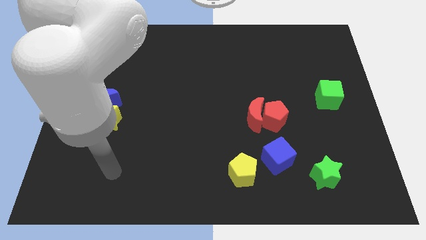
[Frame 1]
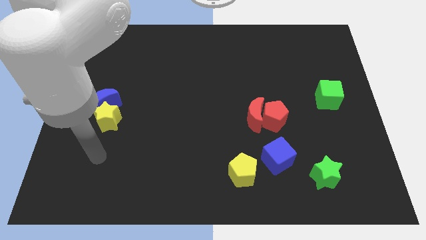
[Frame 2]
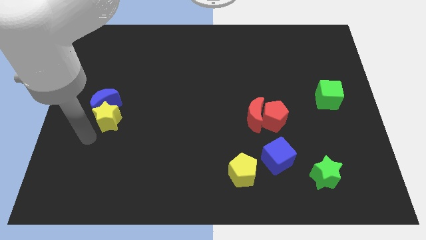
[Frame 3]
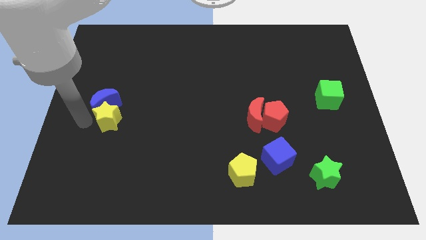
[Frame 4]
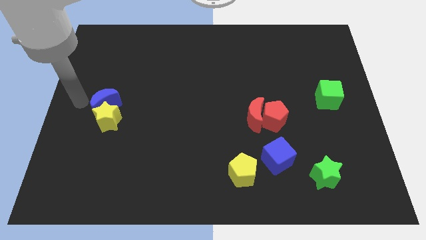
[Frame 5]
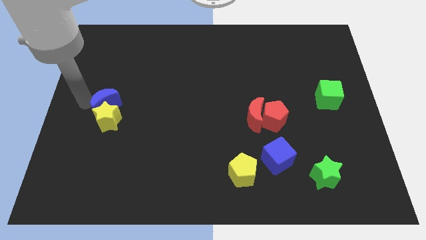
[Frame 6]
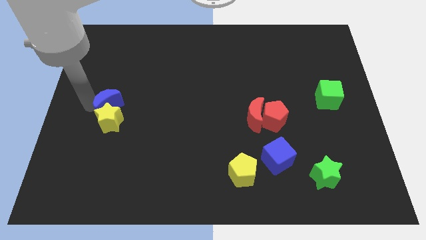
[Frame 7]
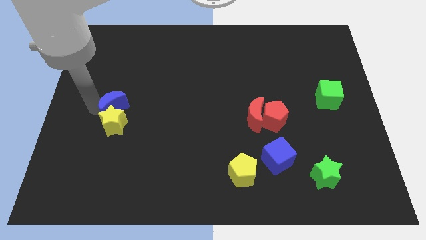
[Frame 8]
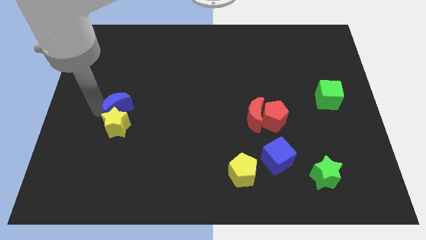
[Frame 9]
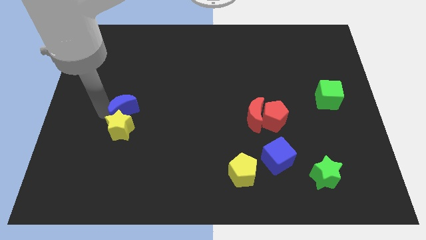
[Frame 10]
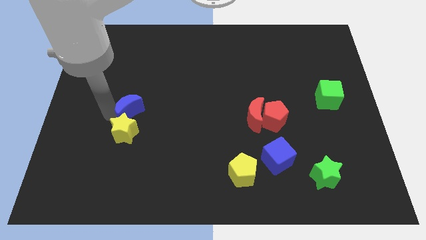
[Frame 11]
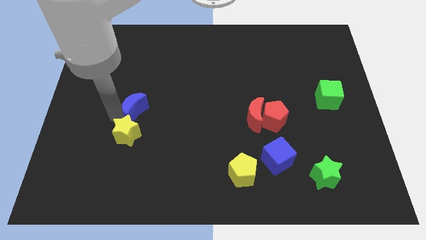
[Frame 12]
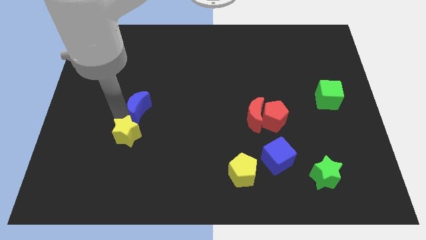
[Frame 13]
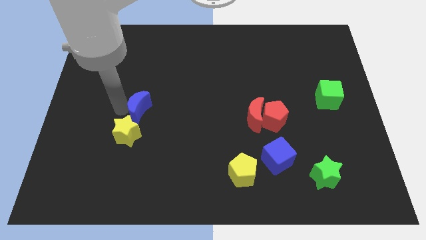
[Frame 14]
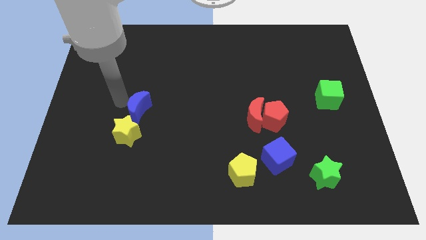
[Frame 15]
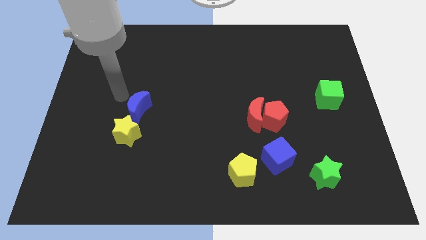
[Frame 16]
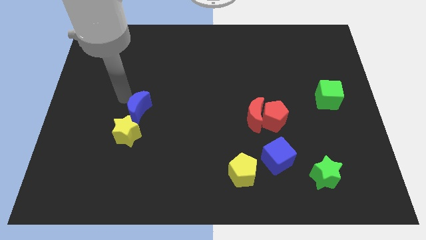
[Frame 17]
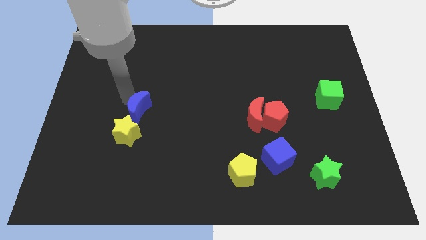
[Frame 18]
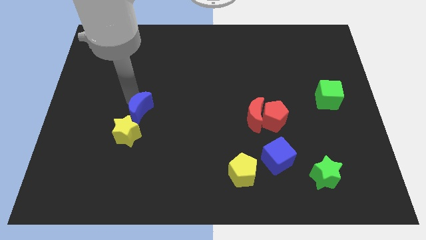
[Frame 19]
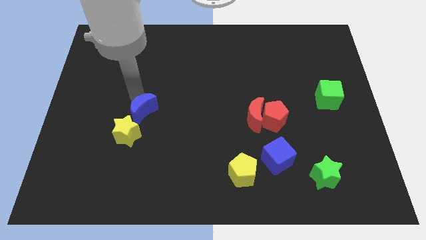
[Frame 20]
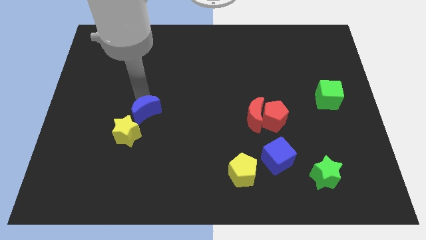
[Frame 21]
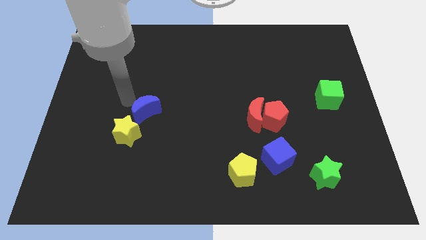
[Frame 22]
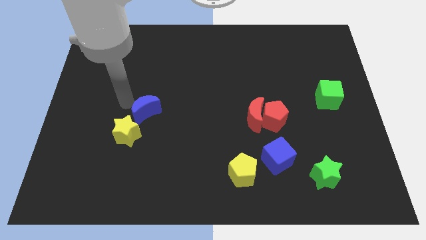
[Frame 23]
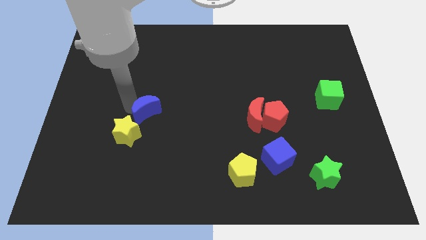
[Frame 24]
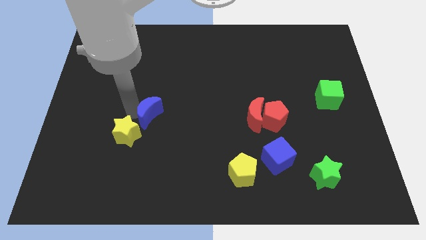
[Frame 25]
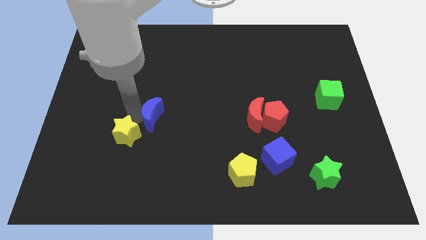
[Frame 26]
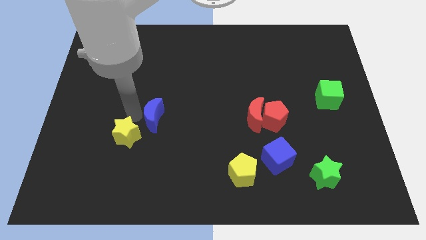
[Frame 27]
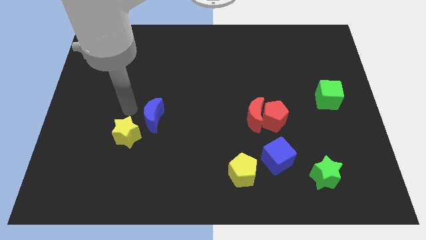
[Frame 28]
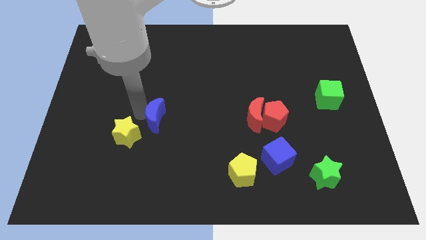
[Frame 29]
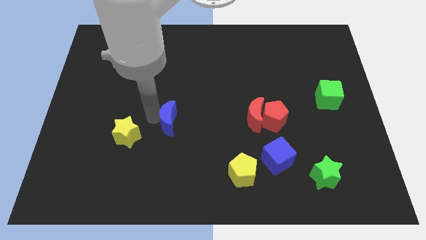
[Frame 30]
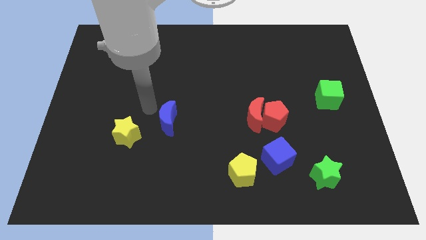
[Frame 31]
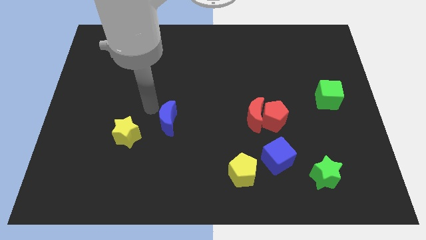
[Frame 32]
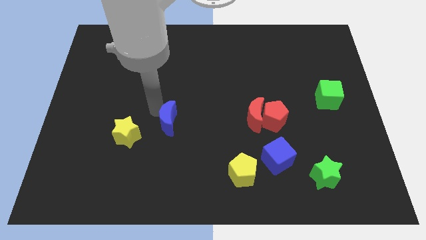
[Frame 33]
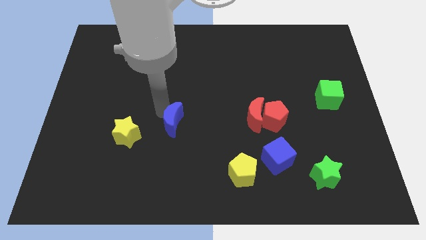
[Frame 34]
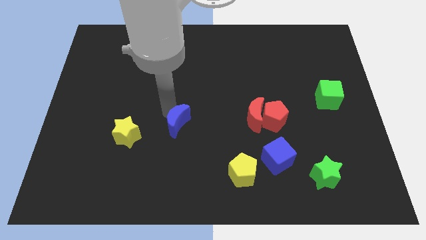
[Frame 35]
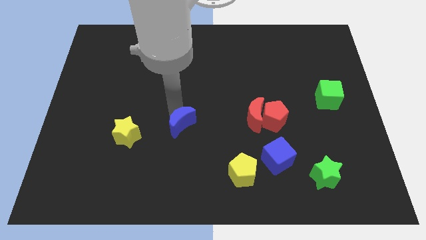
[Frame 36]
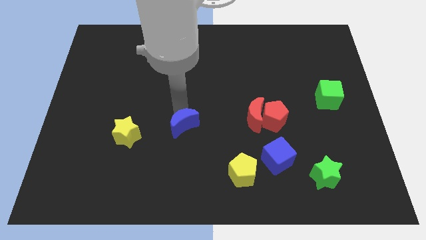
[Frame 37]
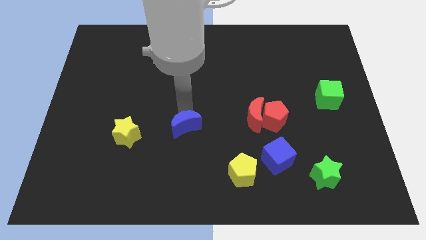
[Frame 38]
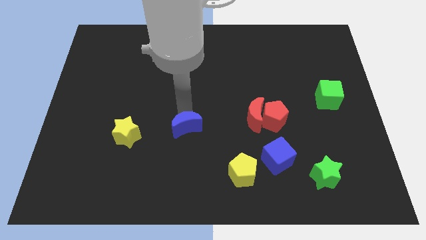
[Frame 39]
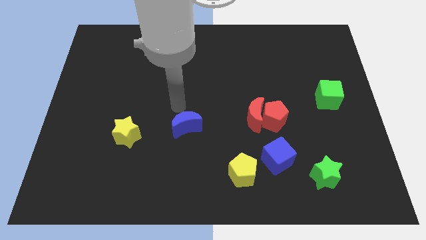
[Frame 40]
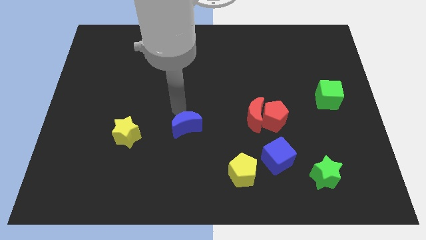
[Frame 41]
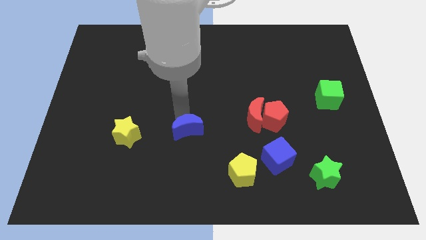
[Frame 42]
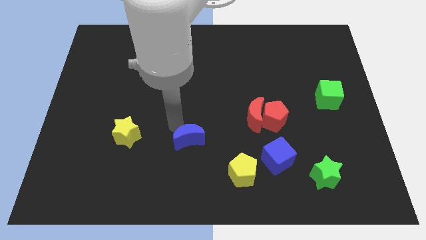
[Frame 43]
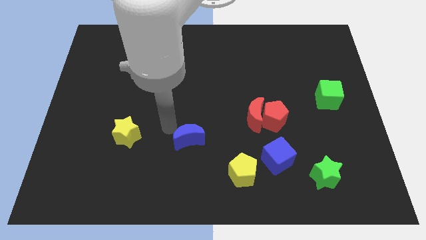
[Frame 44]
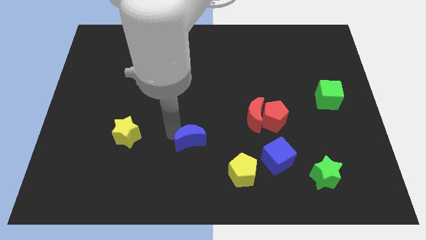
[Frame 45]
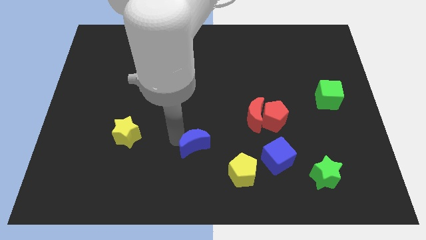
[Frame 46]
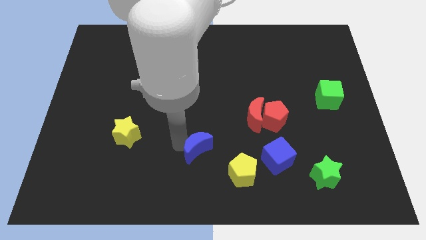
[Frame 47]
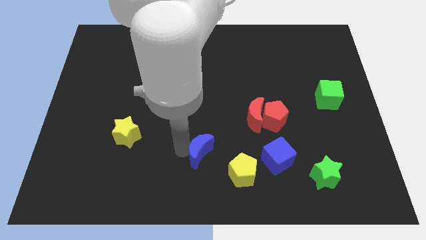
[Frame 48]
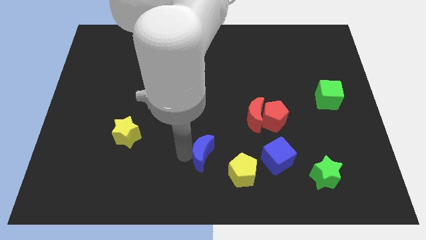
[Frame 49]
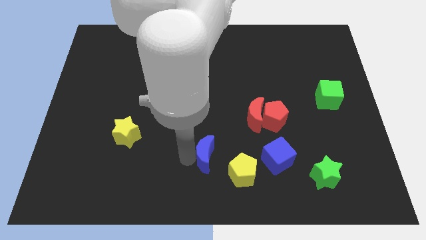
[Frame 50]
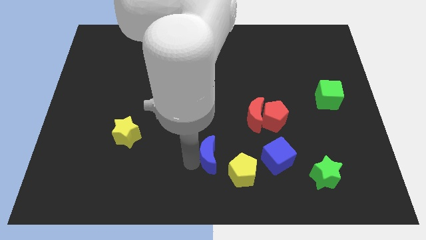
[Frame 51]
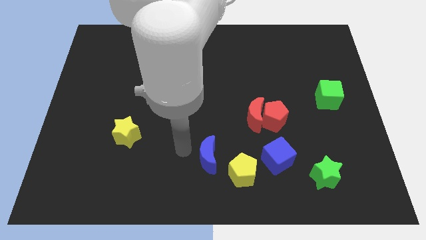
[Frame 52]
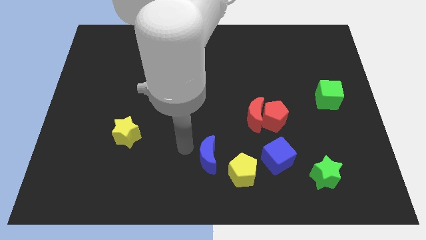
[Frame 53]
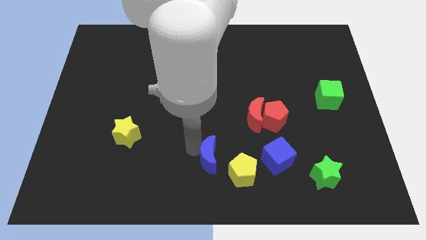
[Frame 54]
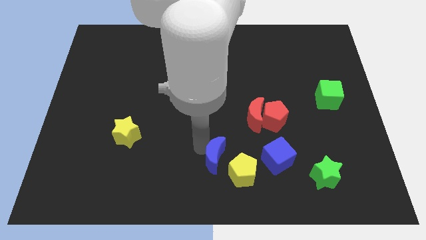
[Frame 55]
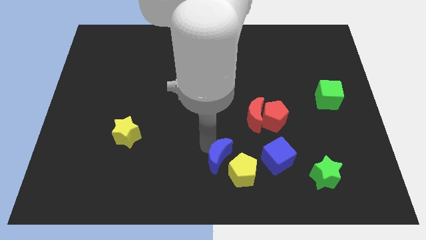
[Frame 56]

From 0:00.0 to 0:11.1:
put the blue moon to the yellow pentagon

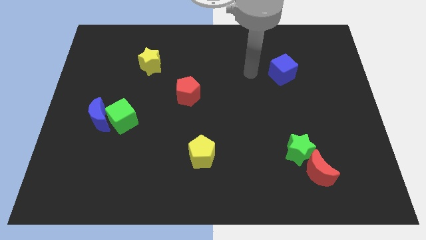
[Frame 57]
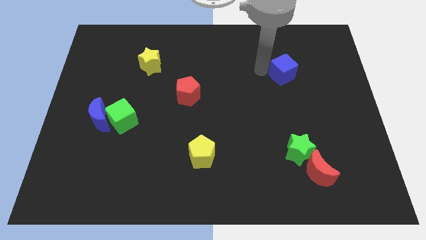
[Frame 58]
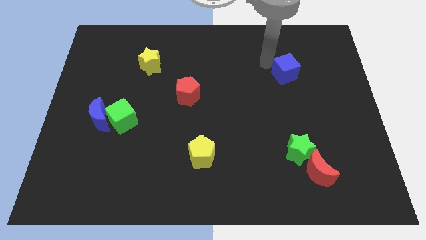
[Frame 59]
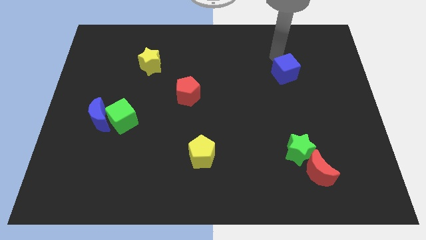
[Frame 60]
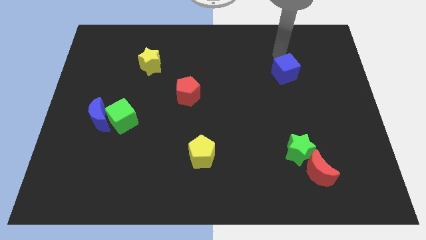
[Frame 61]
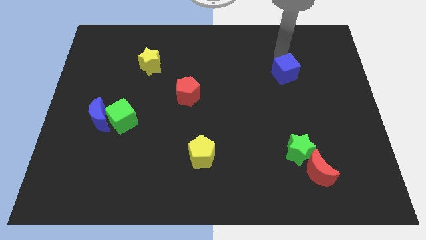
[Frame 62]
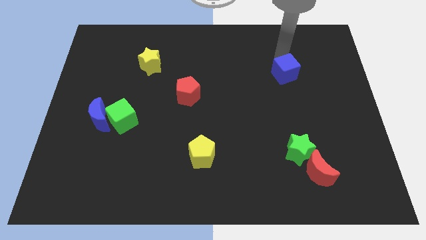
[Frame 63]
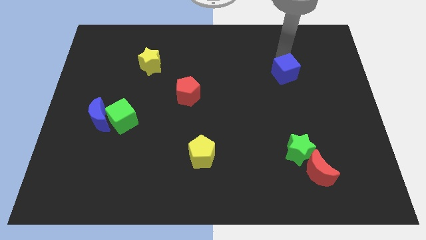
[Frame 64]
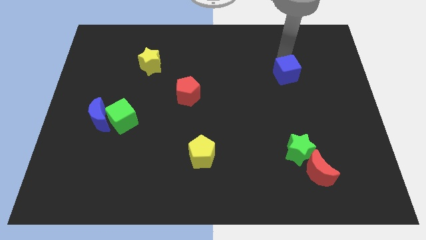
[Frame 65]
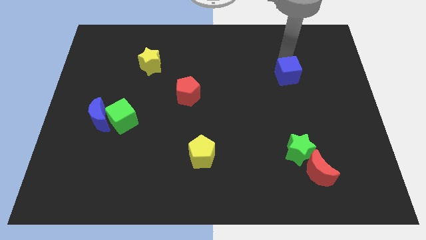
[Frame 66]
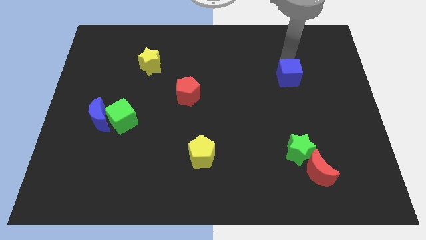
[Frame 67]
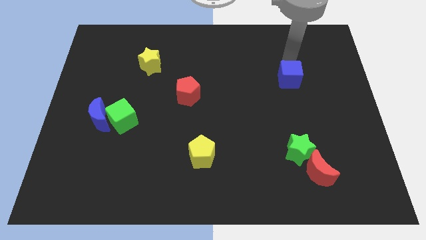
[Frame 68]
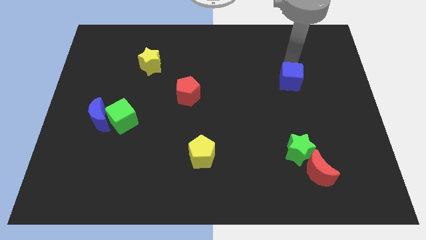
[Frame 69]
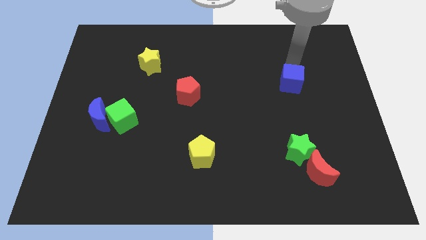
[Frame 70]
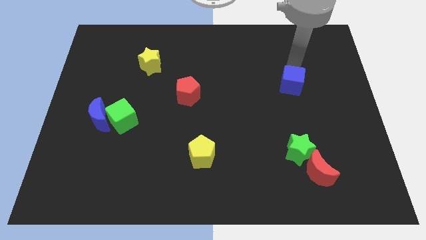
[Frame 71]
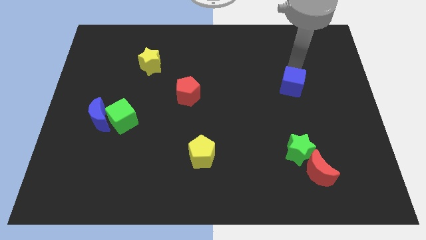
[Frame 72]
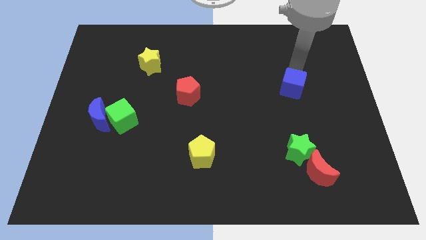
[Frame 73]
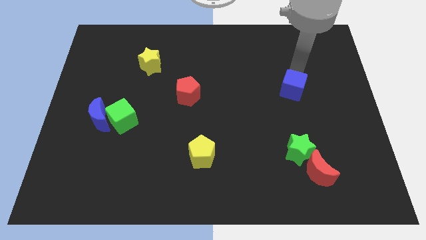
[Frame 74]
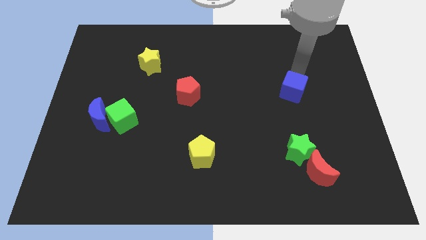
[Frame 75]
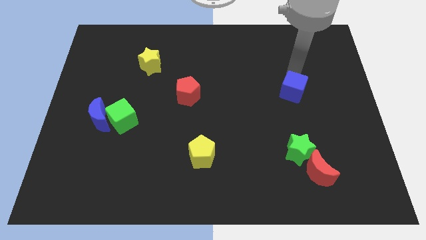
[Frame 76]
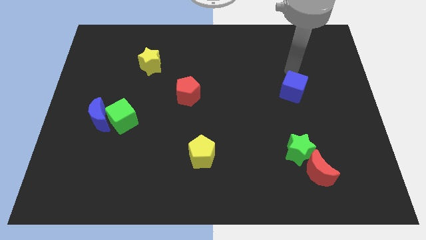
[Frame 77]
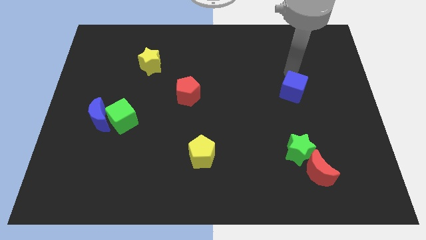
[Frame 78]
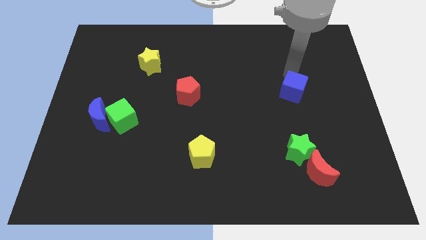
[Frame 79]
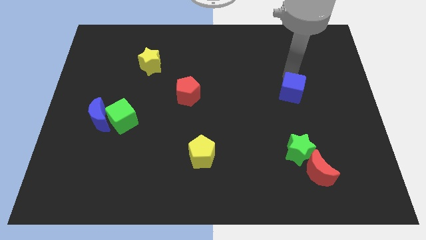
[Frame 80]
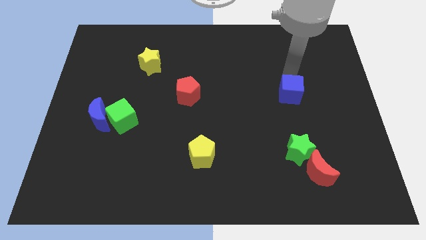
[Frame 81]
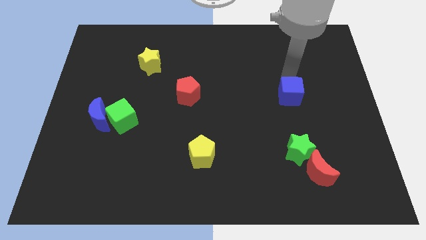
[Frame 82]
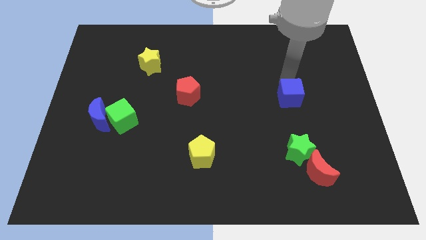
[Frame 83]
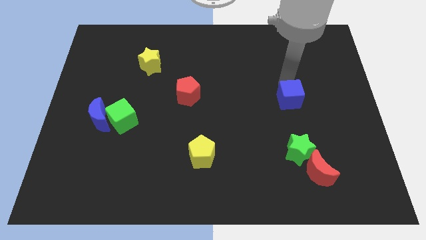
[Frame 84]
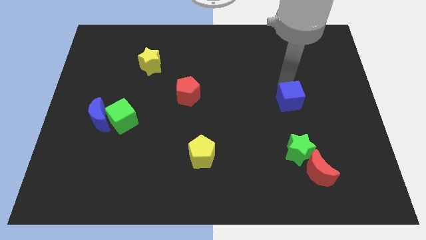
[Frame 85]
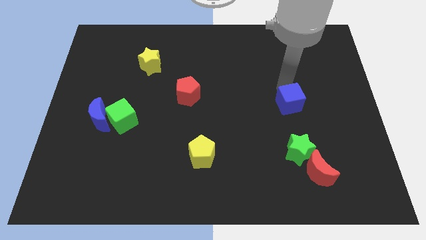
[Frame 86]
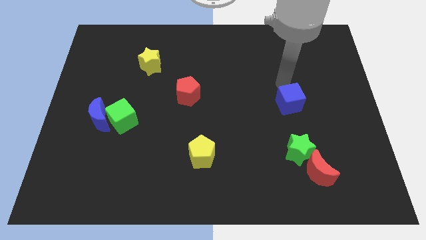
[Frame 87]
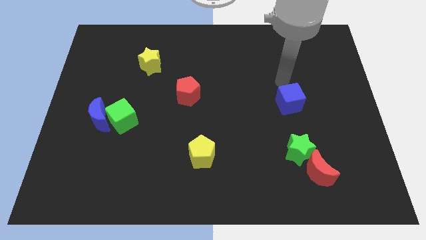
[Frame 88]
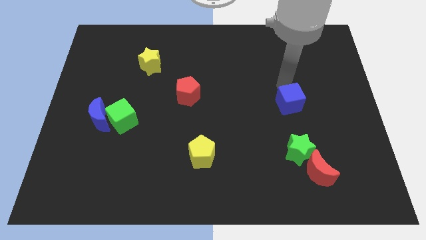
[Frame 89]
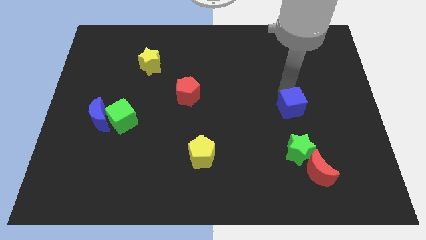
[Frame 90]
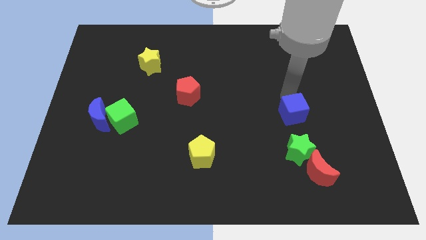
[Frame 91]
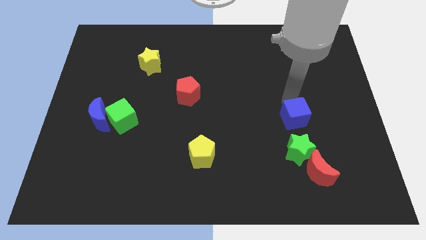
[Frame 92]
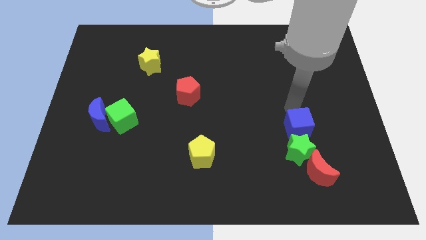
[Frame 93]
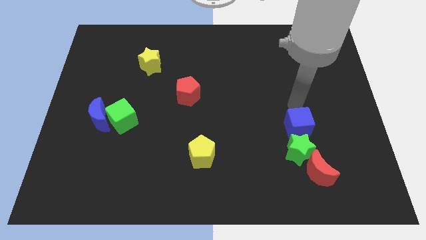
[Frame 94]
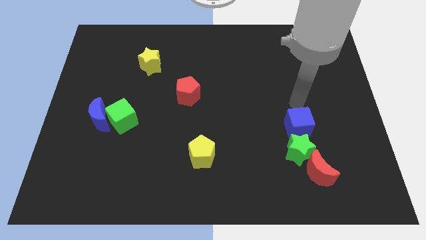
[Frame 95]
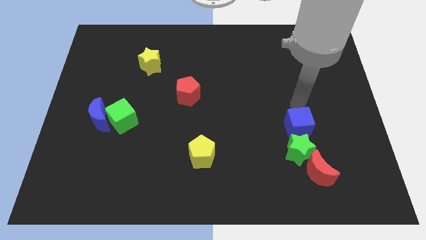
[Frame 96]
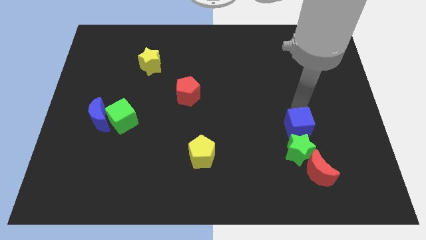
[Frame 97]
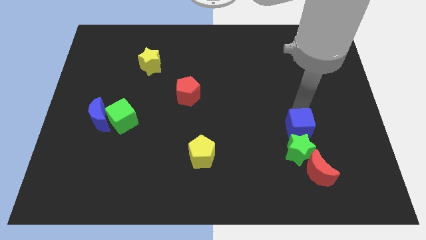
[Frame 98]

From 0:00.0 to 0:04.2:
slide the blue cube next to the green star
